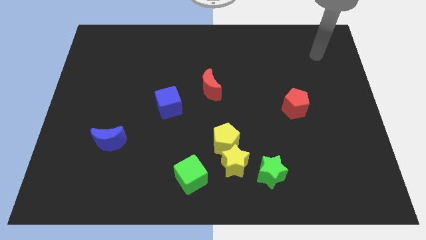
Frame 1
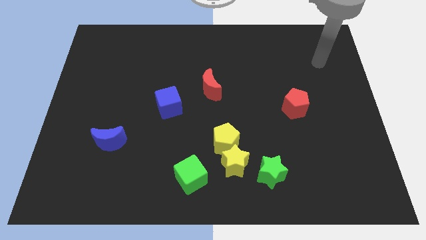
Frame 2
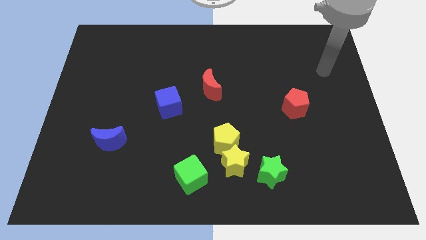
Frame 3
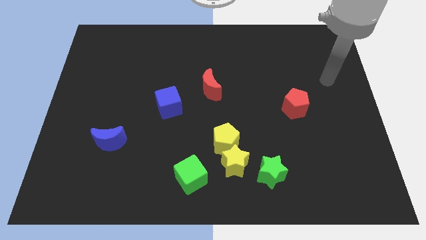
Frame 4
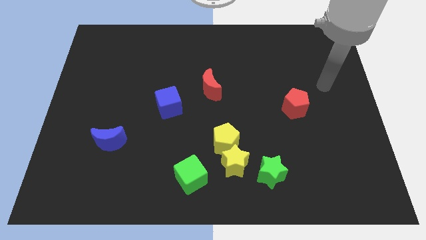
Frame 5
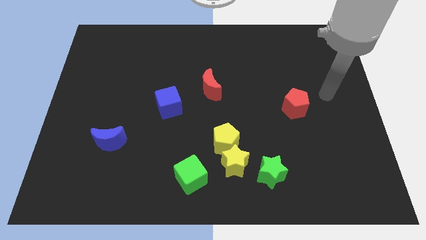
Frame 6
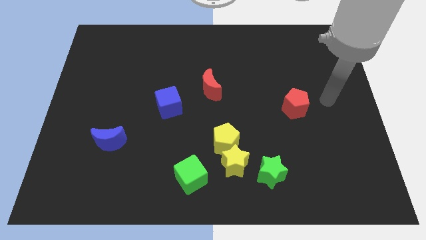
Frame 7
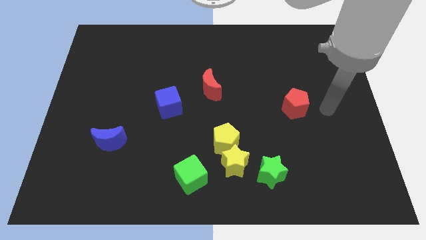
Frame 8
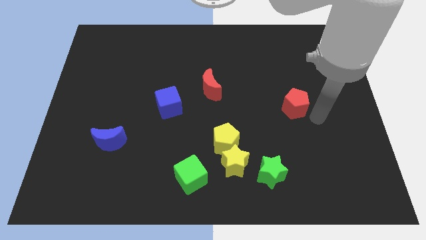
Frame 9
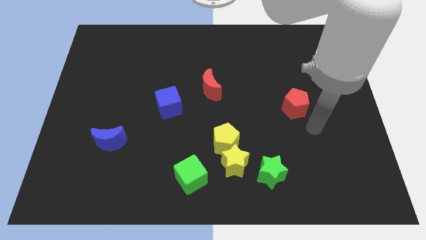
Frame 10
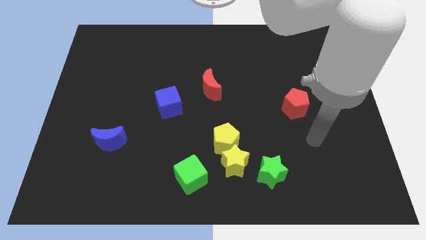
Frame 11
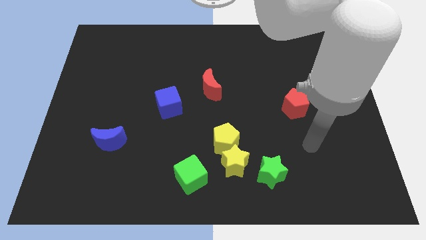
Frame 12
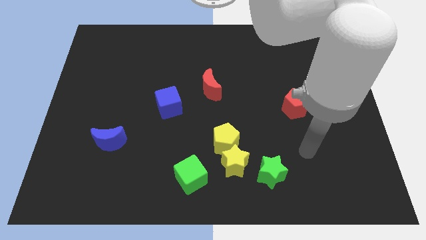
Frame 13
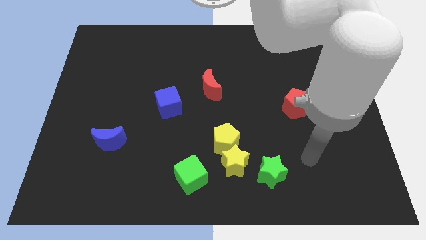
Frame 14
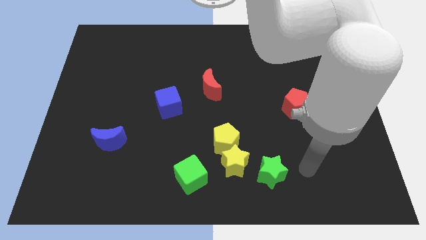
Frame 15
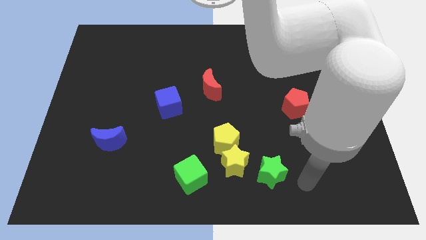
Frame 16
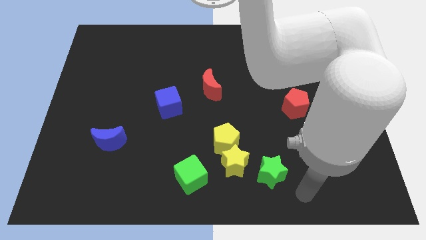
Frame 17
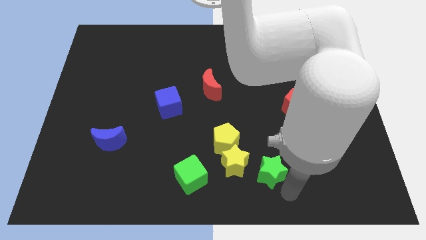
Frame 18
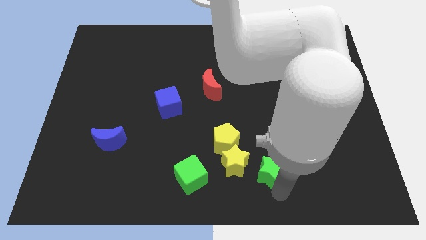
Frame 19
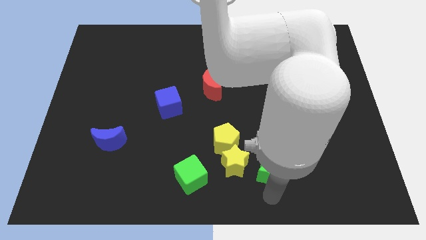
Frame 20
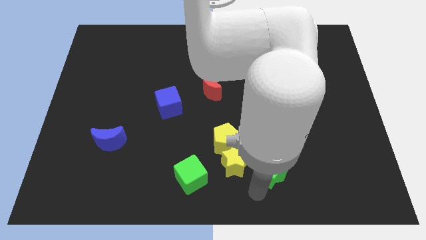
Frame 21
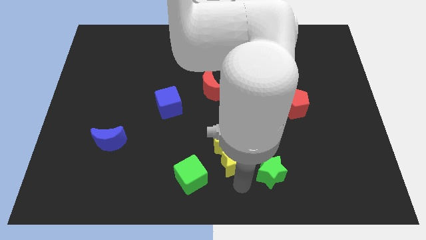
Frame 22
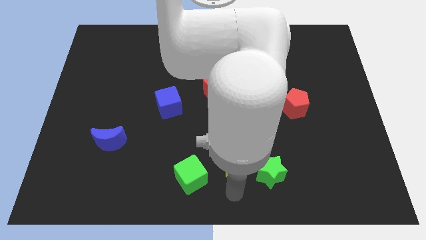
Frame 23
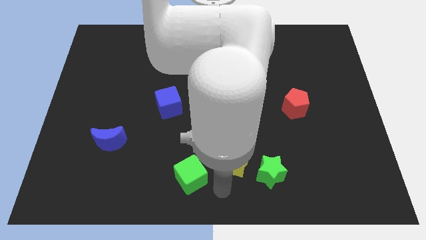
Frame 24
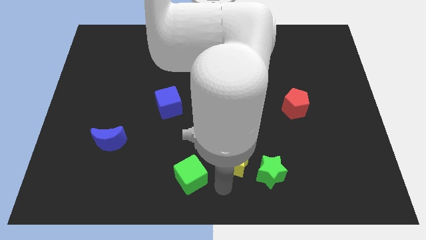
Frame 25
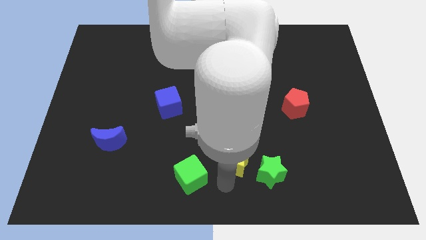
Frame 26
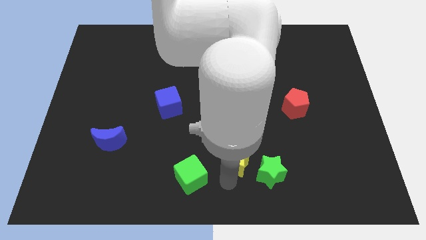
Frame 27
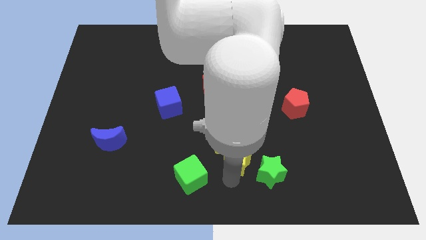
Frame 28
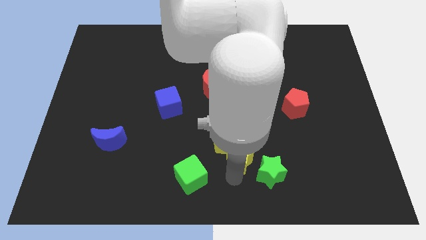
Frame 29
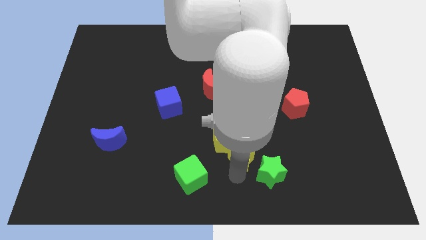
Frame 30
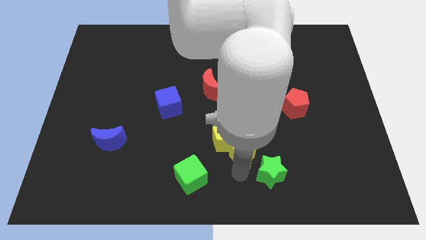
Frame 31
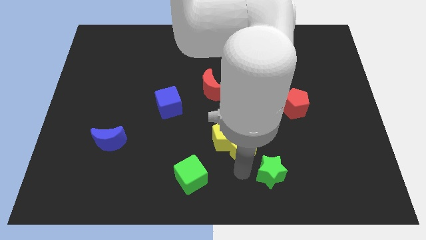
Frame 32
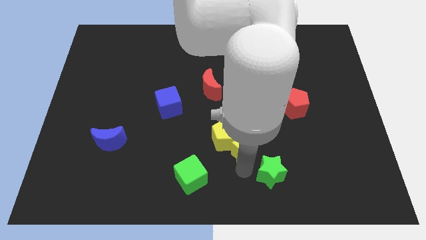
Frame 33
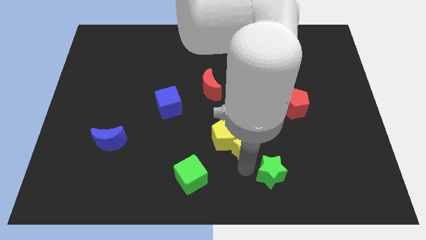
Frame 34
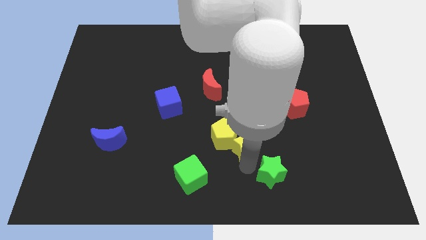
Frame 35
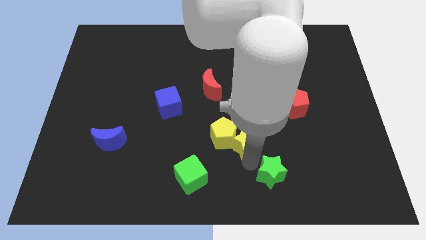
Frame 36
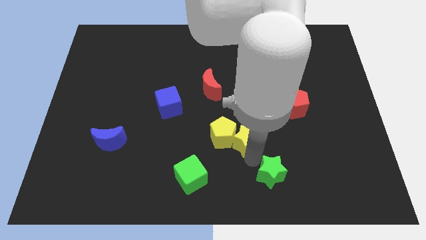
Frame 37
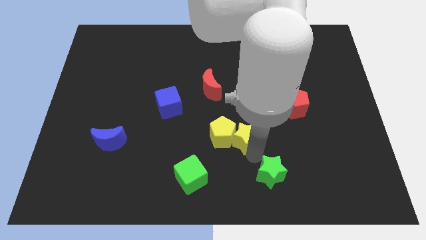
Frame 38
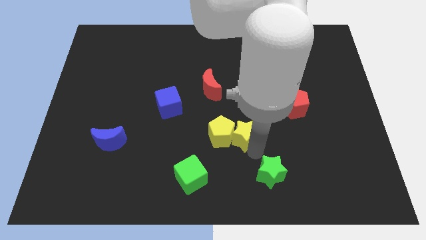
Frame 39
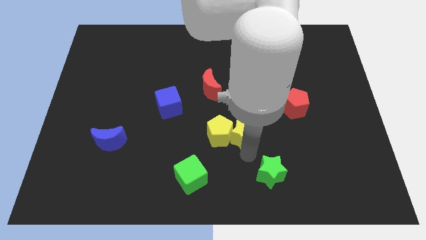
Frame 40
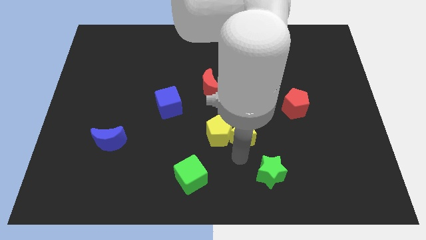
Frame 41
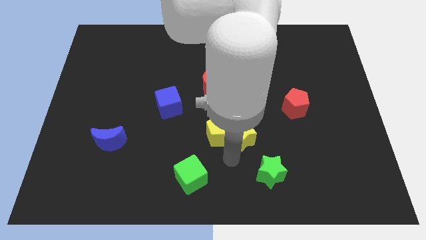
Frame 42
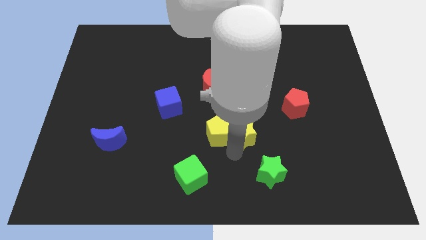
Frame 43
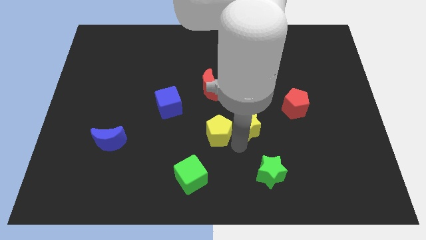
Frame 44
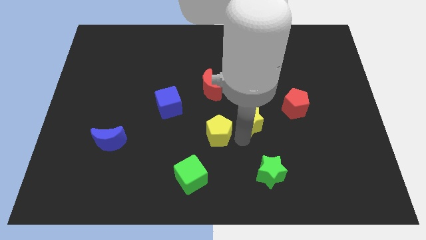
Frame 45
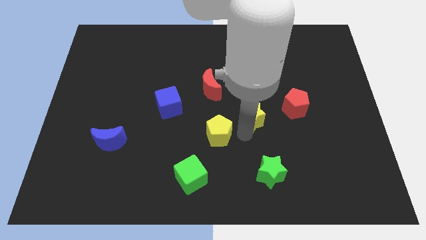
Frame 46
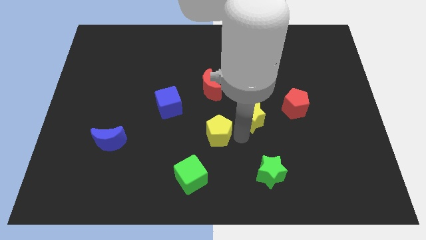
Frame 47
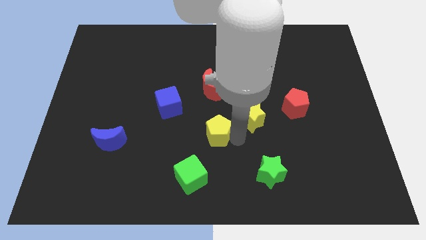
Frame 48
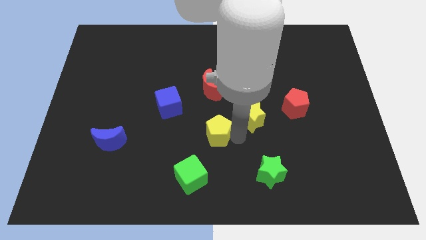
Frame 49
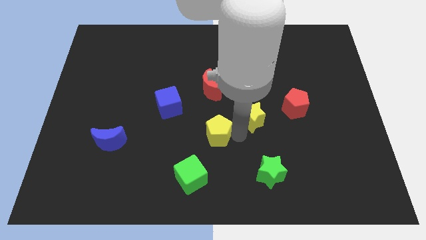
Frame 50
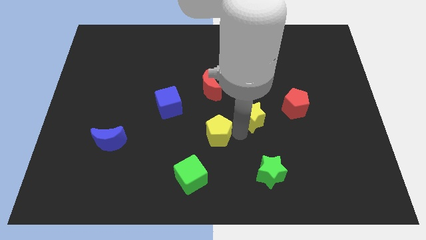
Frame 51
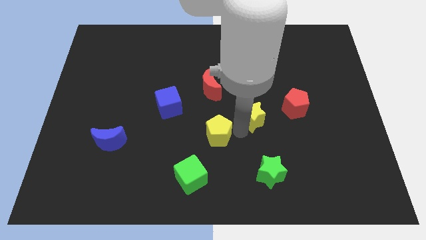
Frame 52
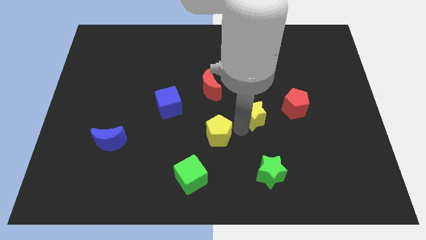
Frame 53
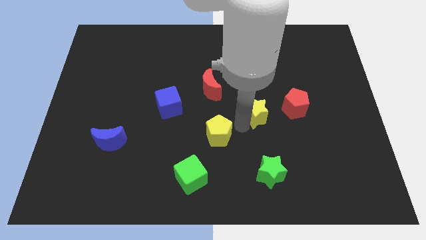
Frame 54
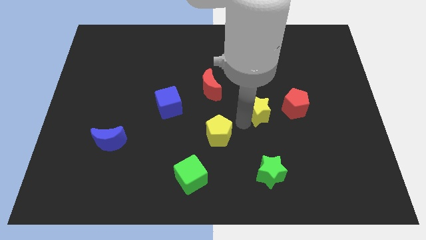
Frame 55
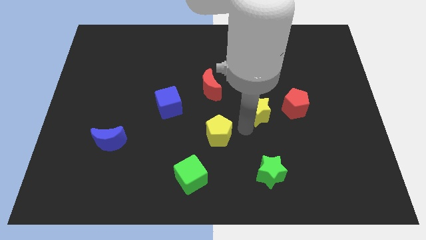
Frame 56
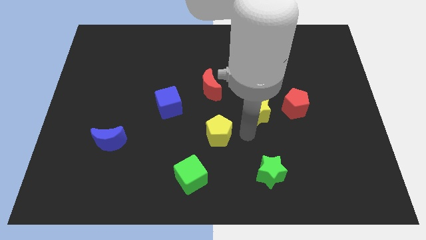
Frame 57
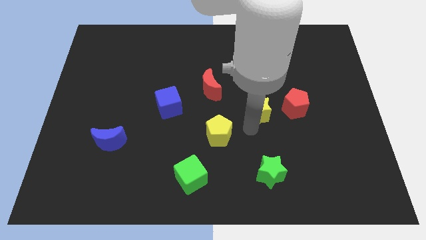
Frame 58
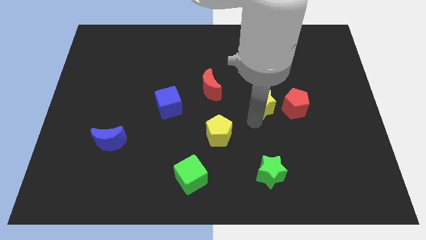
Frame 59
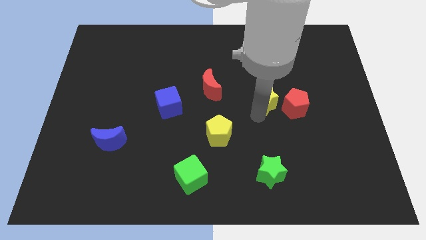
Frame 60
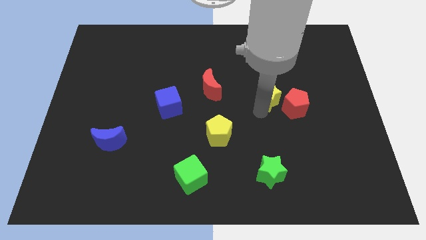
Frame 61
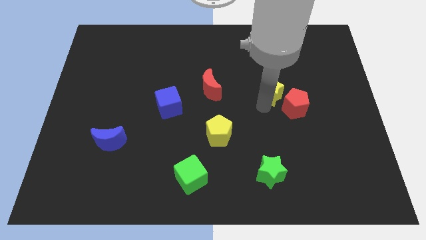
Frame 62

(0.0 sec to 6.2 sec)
slide the yellow star to the top of the red pentagon

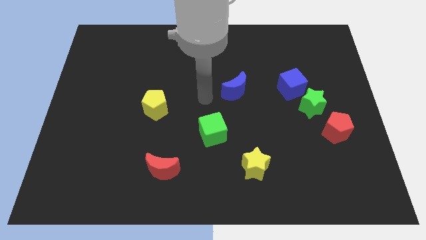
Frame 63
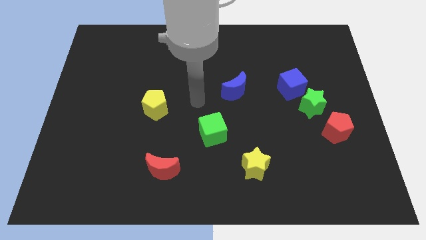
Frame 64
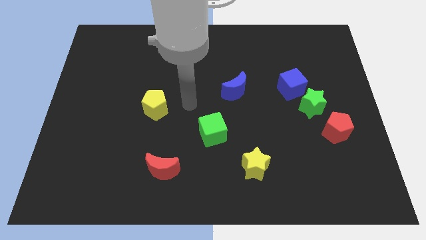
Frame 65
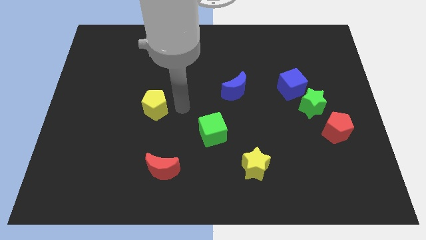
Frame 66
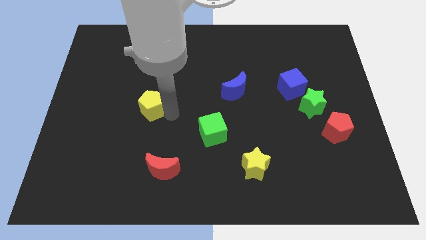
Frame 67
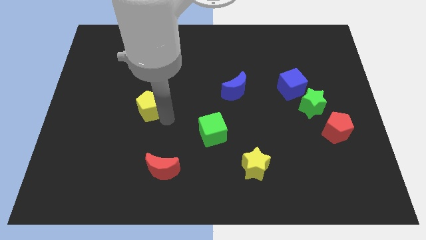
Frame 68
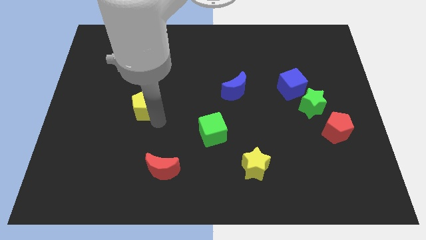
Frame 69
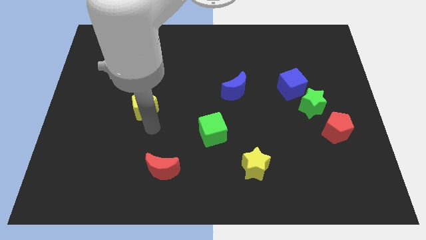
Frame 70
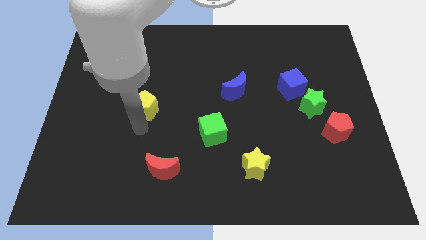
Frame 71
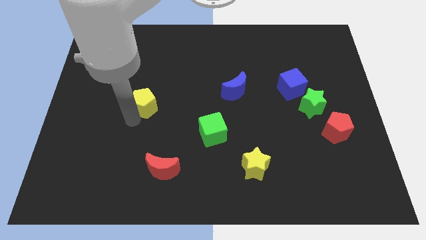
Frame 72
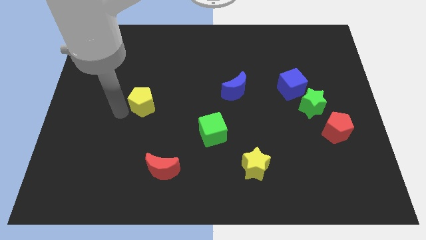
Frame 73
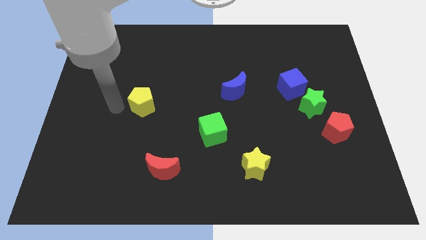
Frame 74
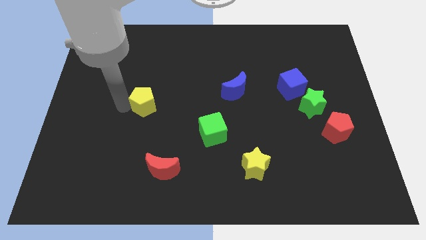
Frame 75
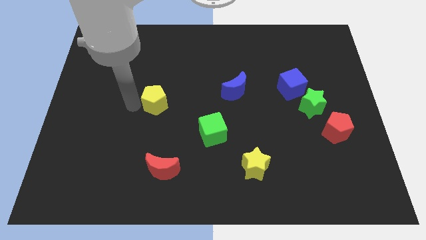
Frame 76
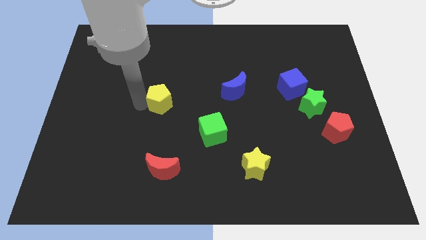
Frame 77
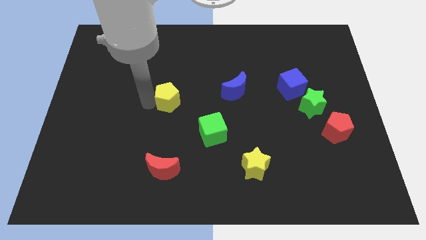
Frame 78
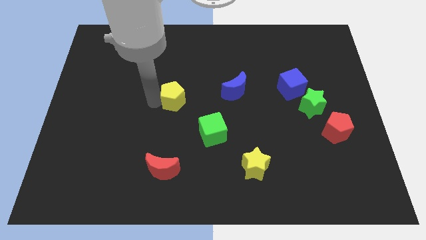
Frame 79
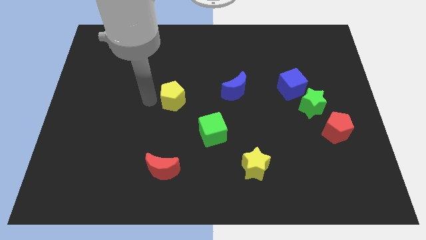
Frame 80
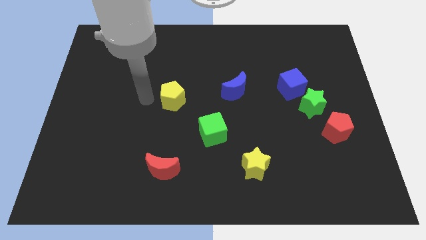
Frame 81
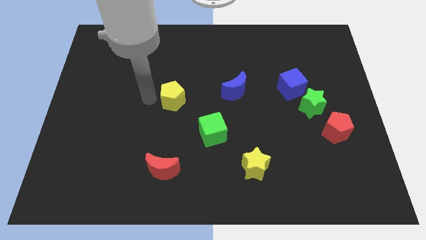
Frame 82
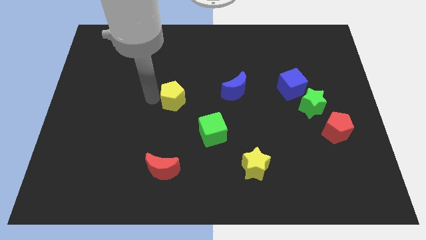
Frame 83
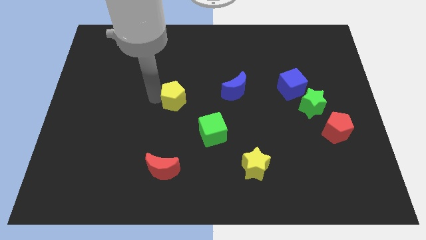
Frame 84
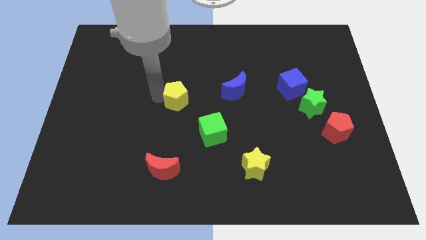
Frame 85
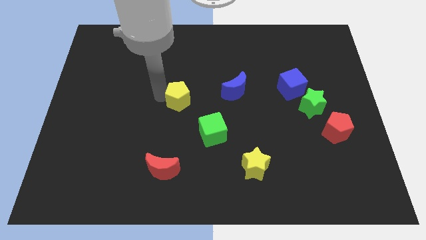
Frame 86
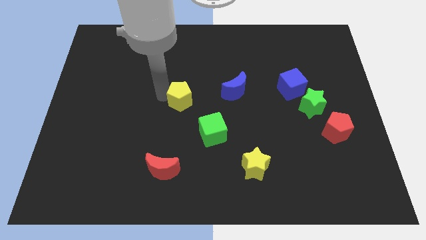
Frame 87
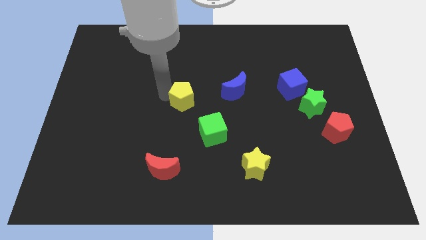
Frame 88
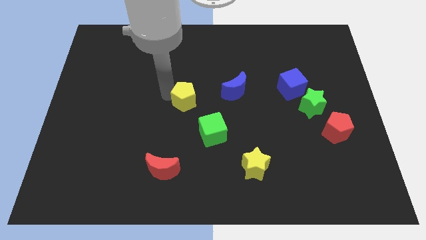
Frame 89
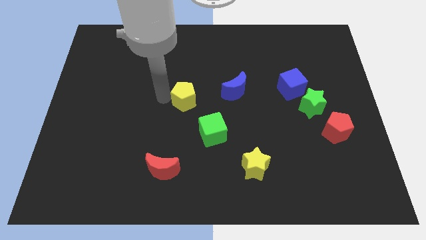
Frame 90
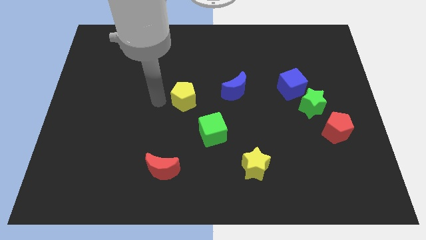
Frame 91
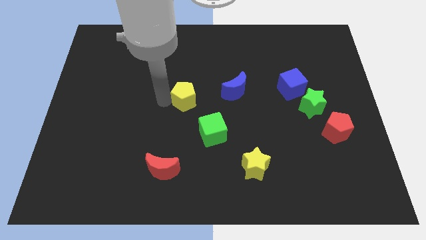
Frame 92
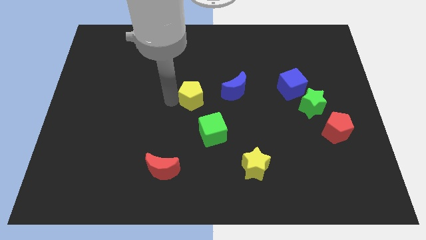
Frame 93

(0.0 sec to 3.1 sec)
put the yellow pentagon to the top of the green cube
